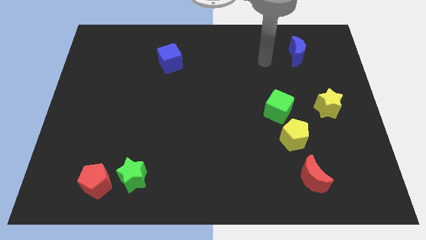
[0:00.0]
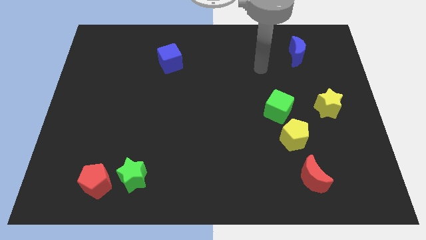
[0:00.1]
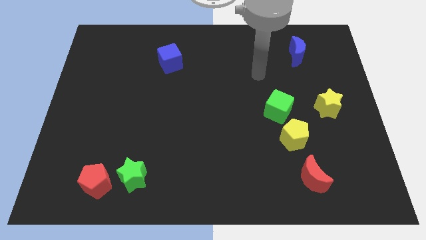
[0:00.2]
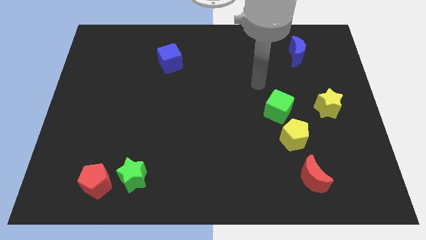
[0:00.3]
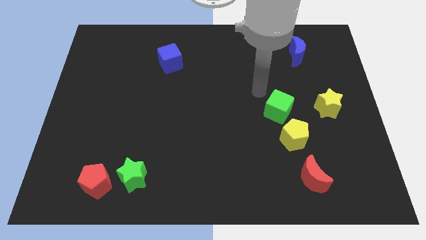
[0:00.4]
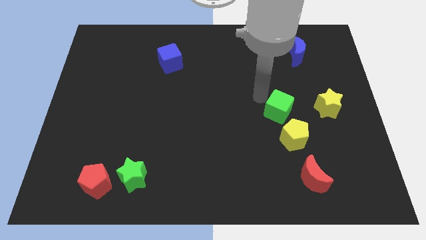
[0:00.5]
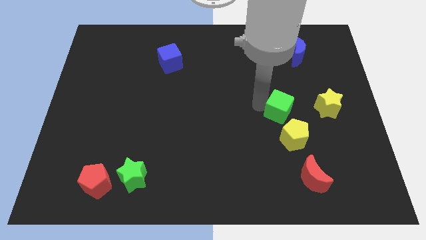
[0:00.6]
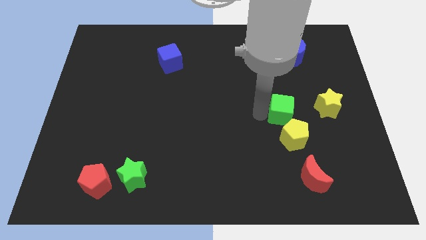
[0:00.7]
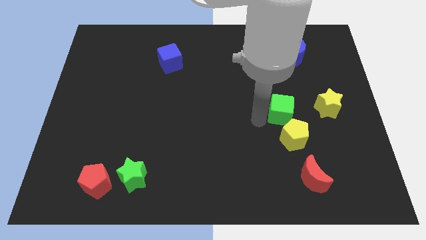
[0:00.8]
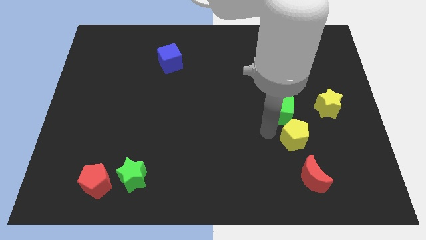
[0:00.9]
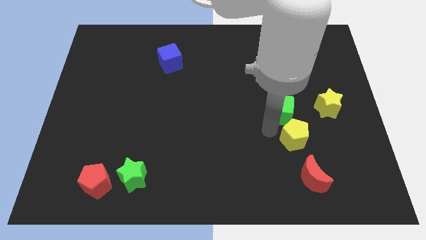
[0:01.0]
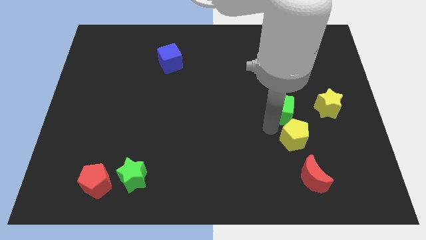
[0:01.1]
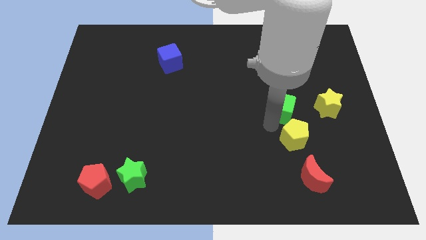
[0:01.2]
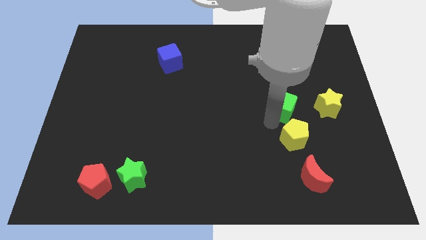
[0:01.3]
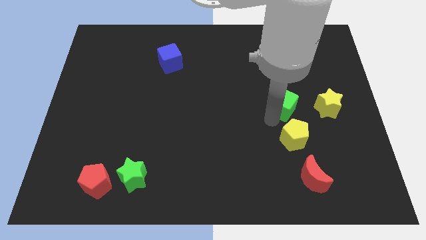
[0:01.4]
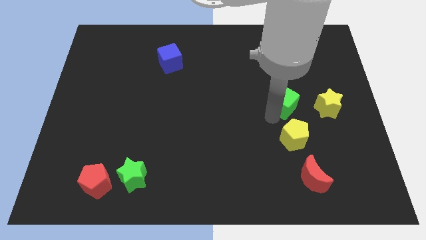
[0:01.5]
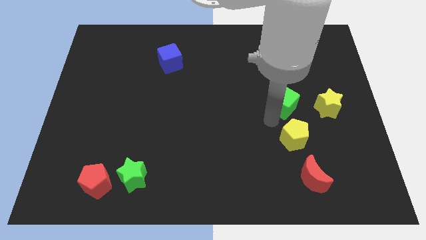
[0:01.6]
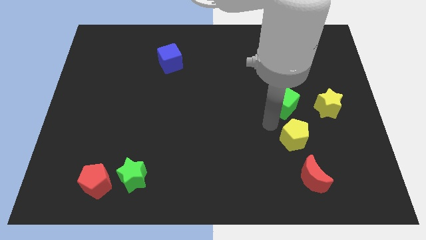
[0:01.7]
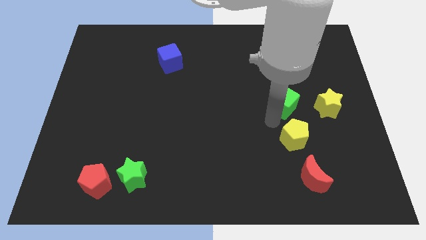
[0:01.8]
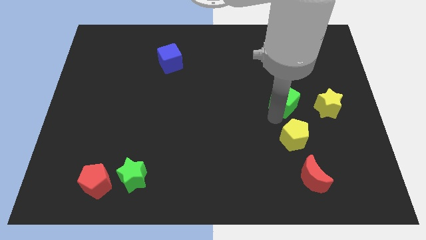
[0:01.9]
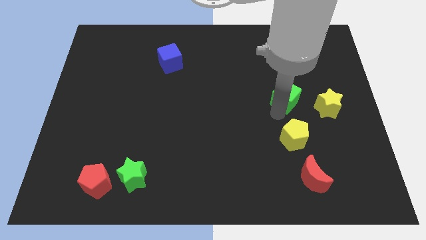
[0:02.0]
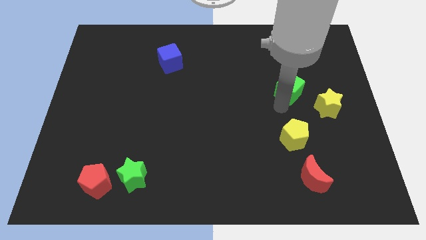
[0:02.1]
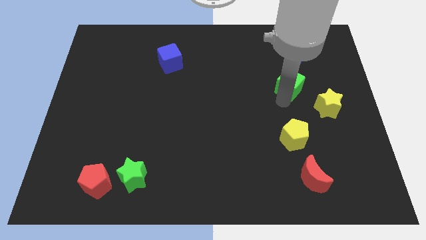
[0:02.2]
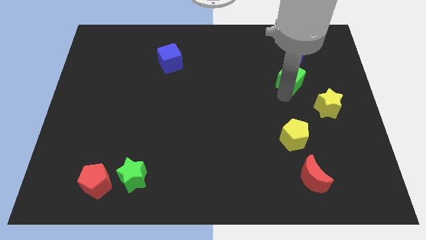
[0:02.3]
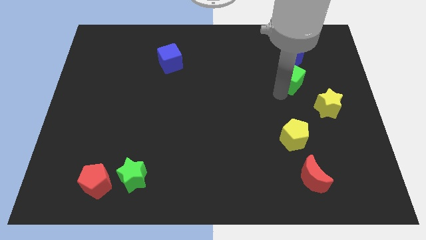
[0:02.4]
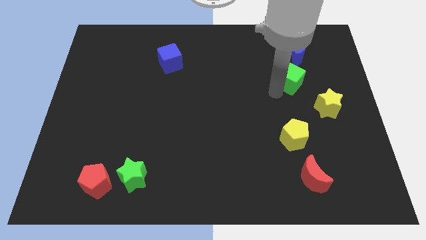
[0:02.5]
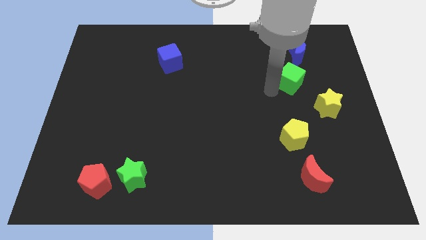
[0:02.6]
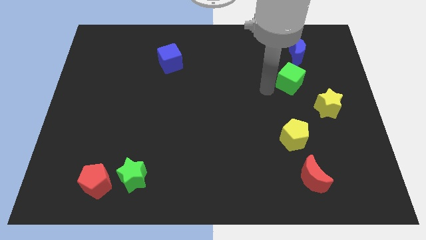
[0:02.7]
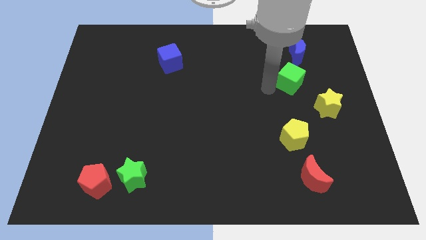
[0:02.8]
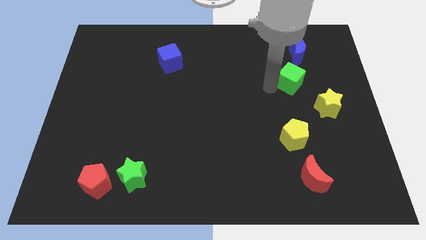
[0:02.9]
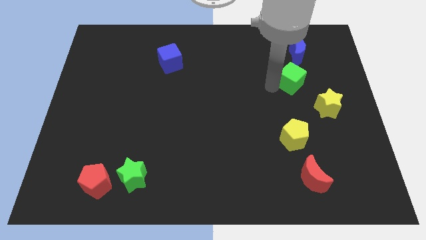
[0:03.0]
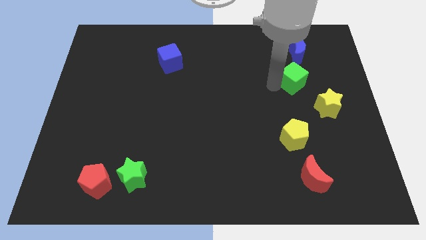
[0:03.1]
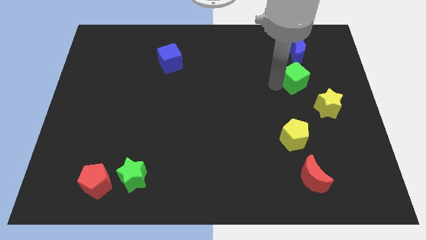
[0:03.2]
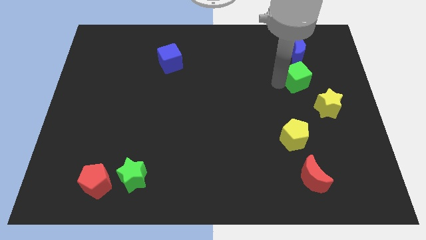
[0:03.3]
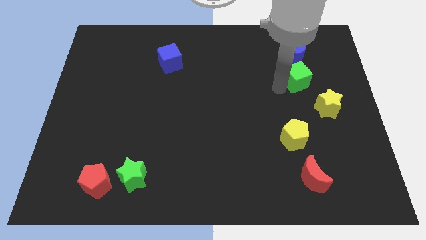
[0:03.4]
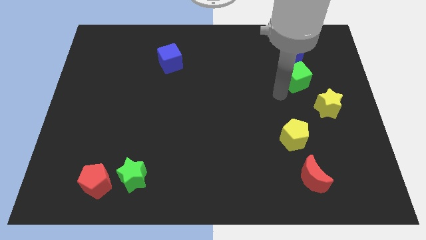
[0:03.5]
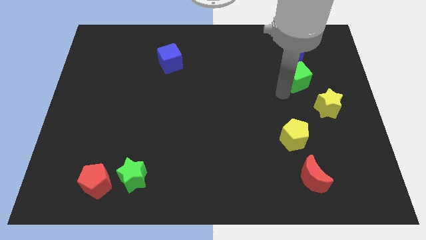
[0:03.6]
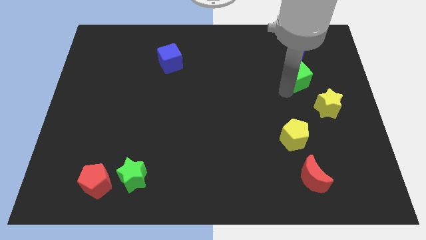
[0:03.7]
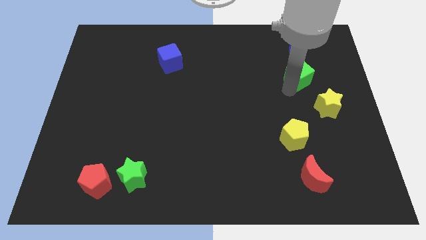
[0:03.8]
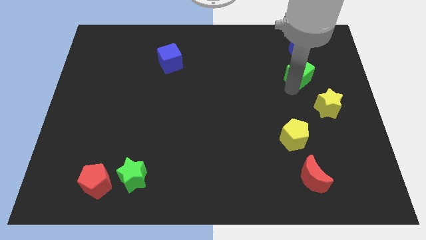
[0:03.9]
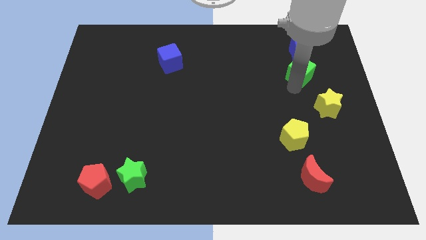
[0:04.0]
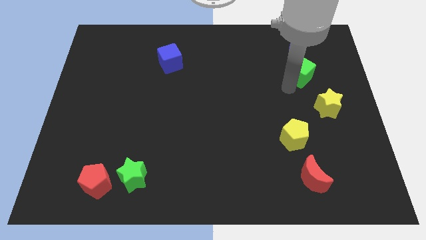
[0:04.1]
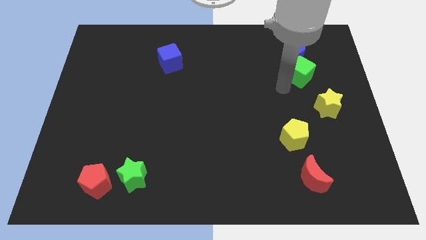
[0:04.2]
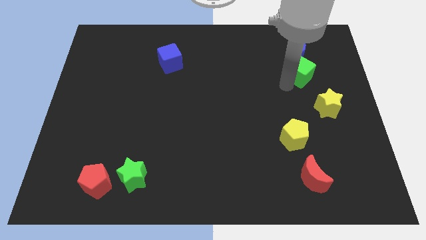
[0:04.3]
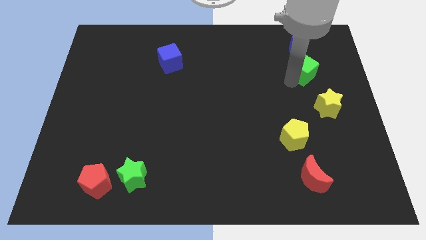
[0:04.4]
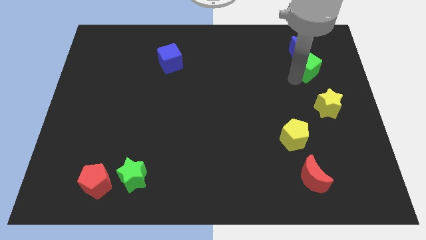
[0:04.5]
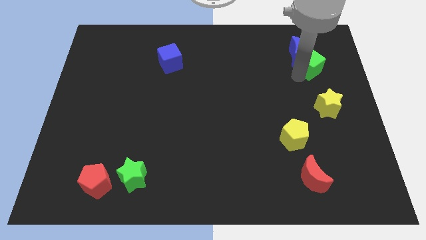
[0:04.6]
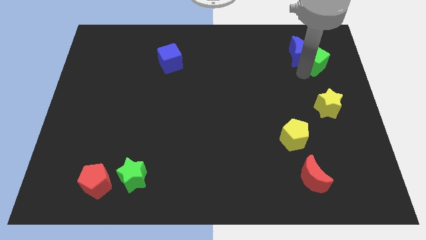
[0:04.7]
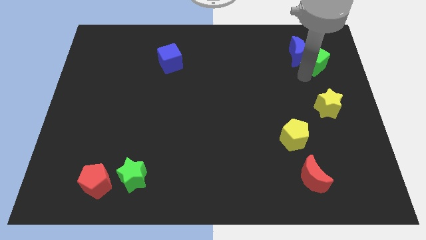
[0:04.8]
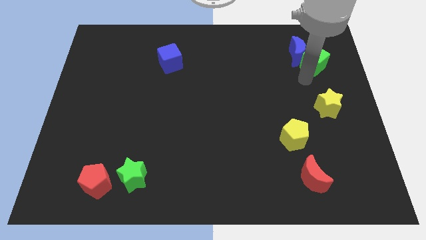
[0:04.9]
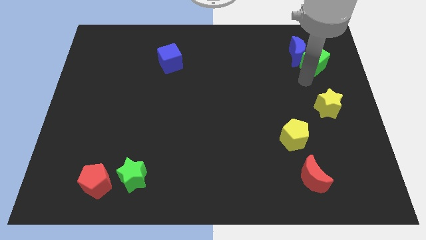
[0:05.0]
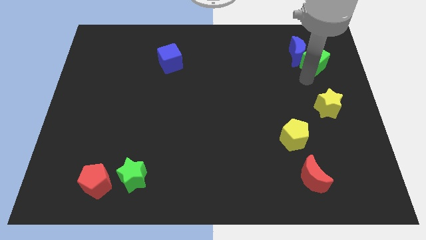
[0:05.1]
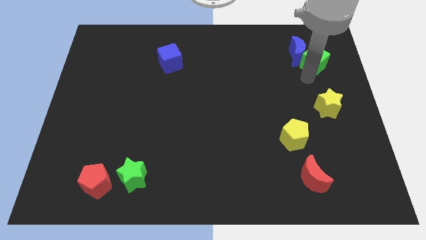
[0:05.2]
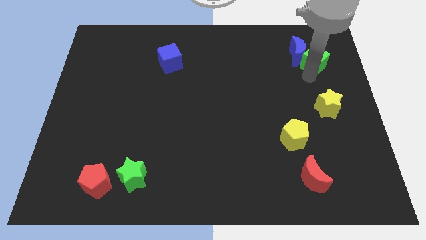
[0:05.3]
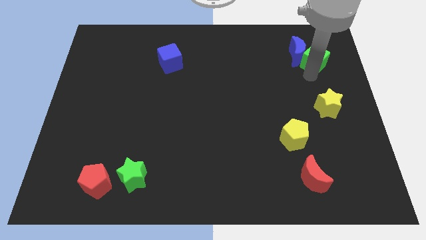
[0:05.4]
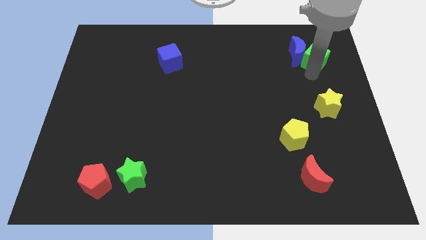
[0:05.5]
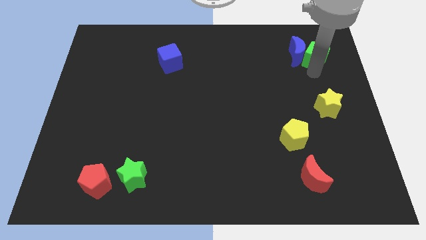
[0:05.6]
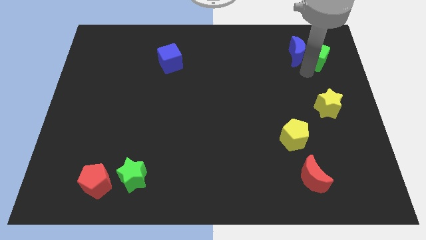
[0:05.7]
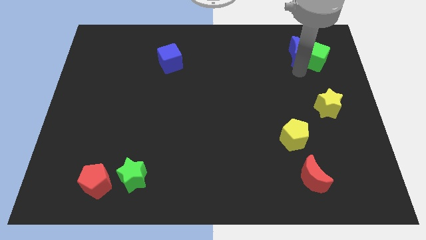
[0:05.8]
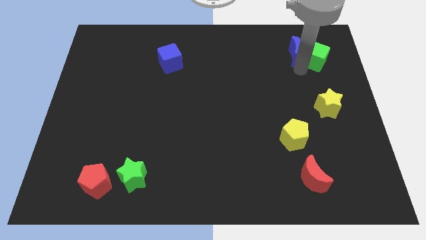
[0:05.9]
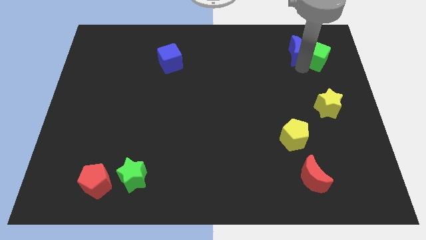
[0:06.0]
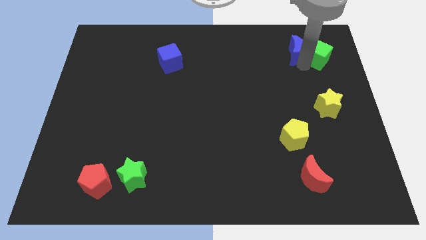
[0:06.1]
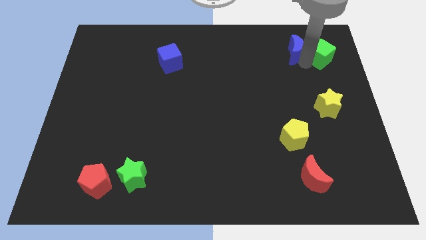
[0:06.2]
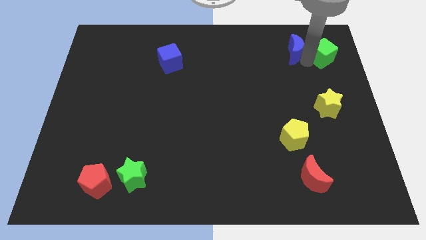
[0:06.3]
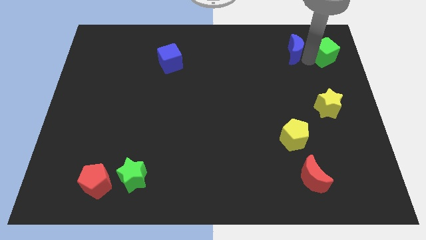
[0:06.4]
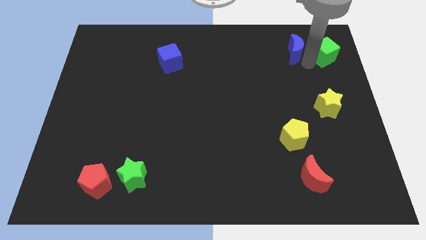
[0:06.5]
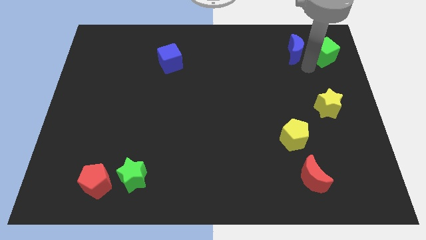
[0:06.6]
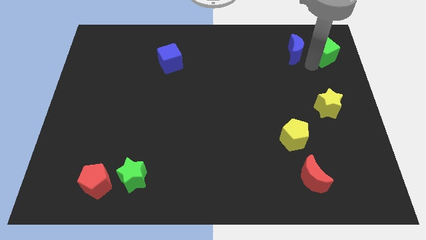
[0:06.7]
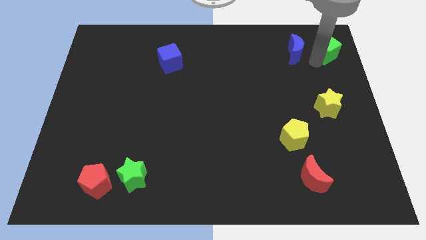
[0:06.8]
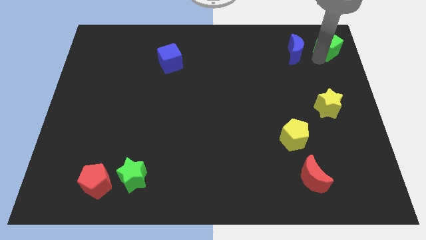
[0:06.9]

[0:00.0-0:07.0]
push the green cube to the top right
